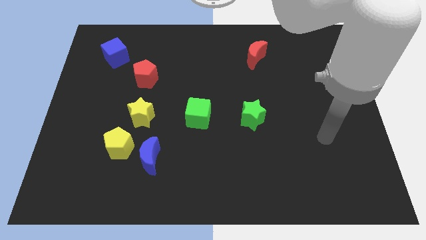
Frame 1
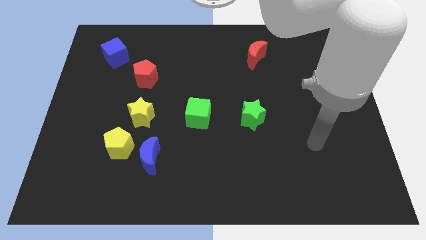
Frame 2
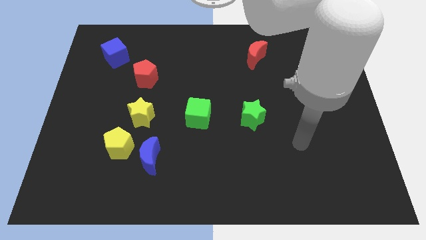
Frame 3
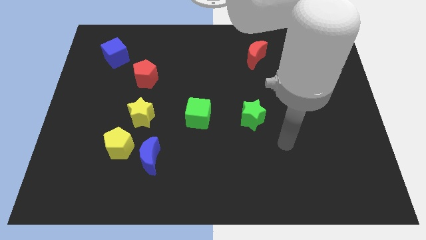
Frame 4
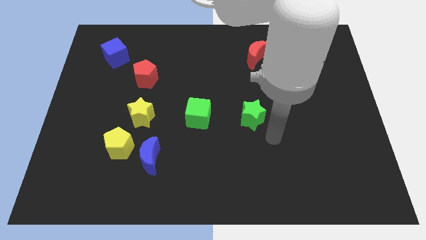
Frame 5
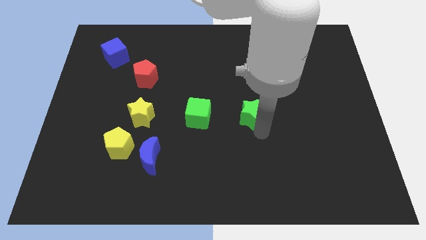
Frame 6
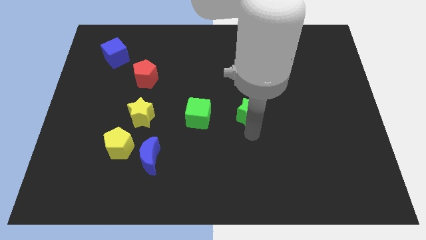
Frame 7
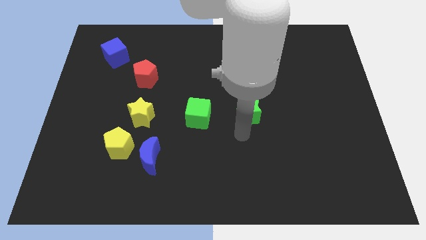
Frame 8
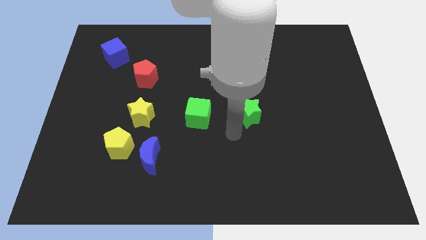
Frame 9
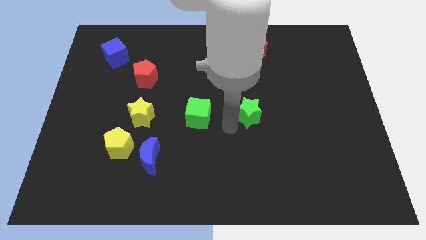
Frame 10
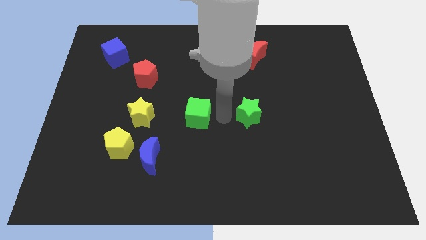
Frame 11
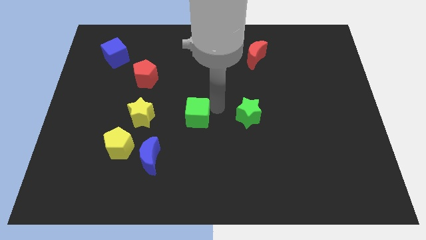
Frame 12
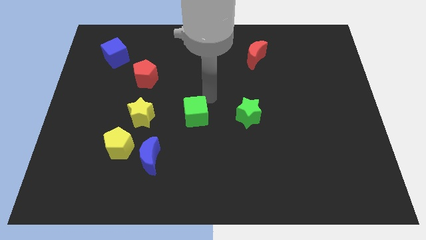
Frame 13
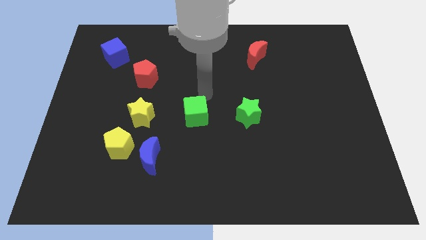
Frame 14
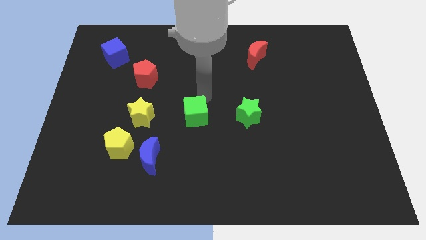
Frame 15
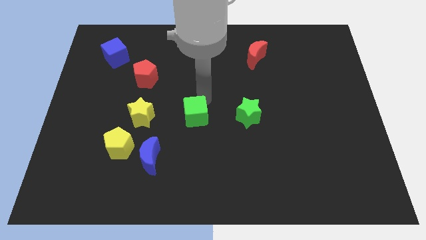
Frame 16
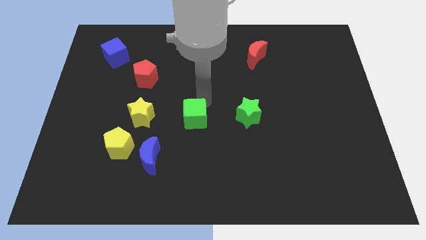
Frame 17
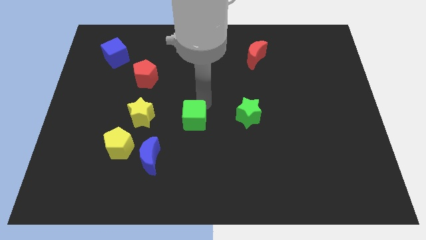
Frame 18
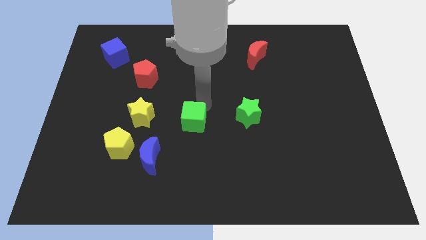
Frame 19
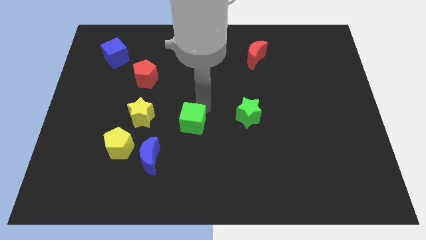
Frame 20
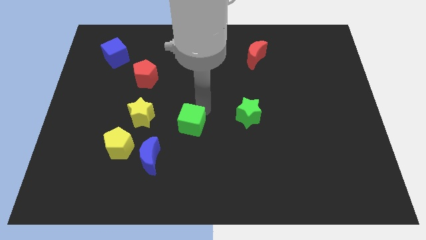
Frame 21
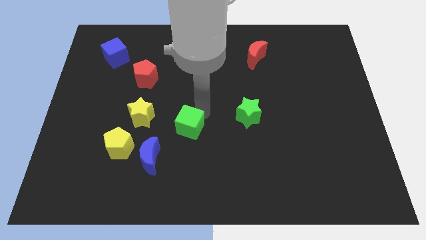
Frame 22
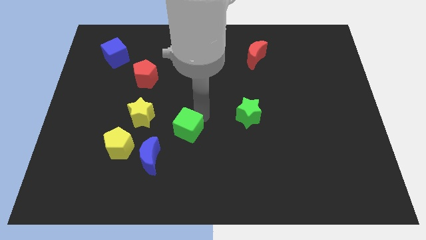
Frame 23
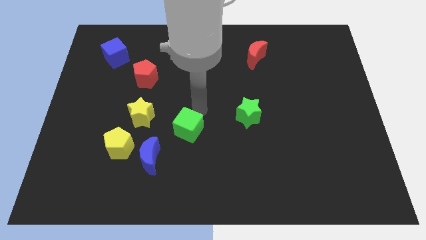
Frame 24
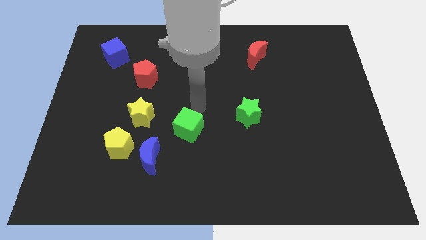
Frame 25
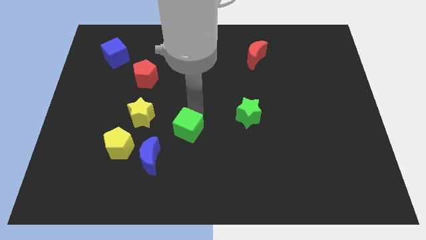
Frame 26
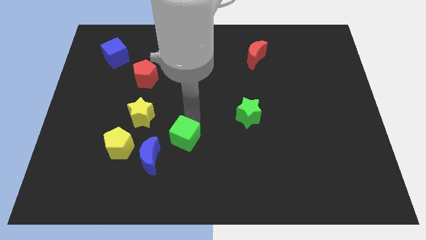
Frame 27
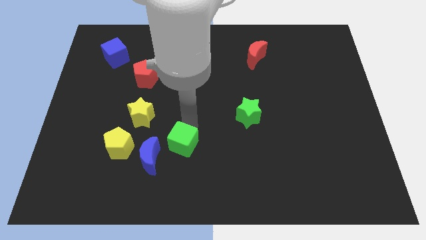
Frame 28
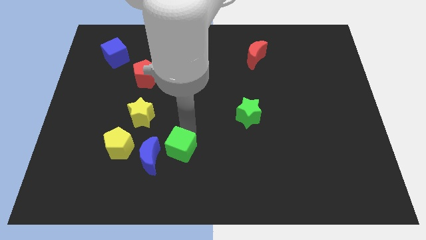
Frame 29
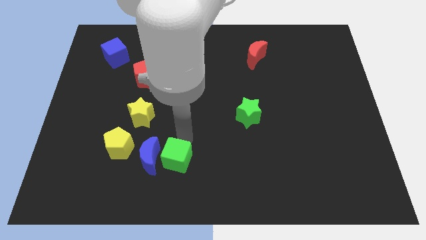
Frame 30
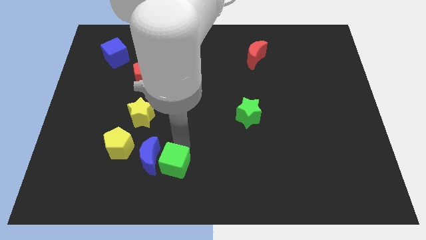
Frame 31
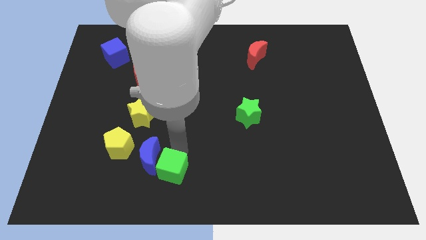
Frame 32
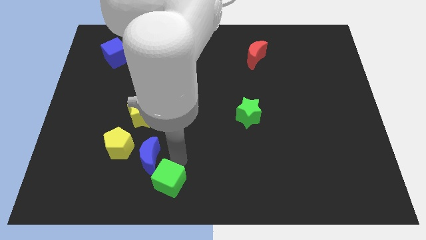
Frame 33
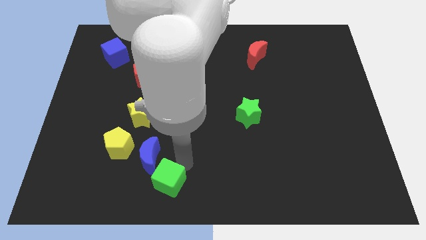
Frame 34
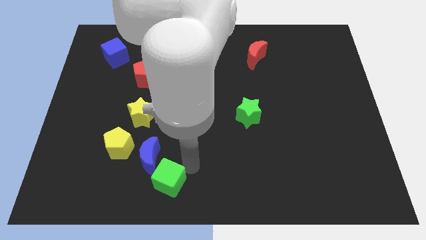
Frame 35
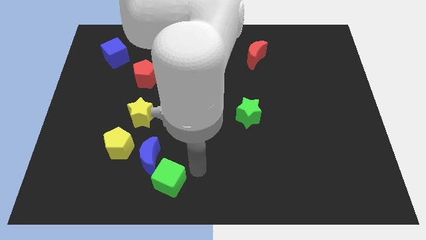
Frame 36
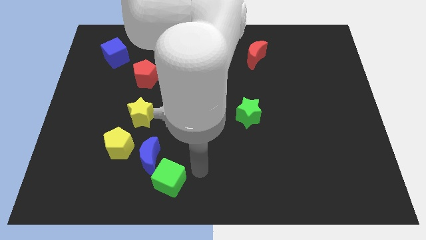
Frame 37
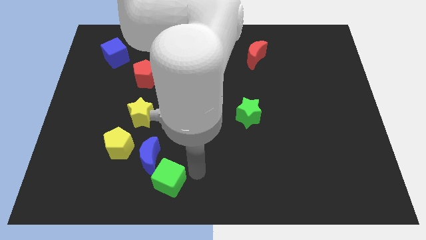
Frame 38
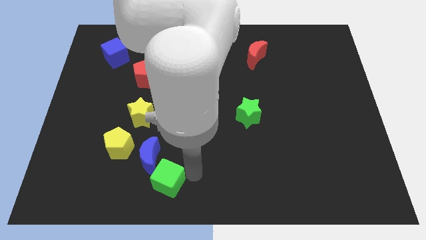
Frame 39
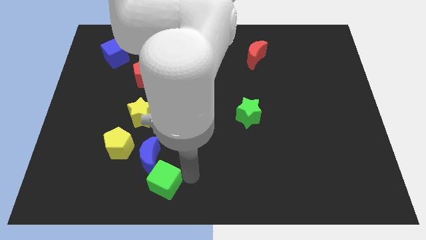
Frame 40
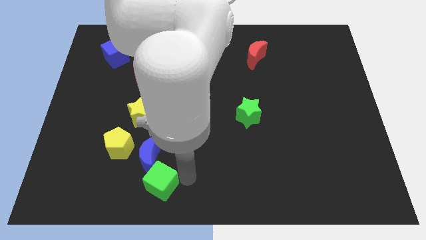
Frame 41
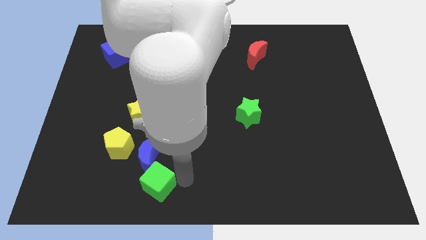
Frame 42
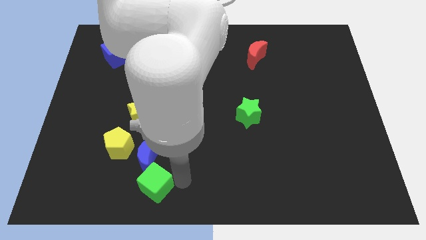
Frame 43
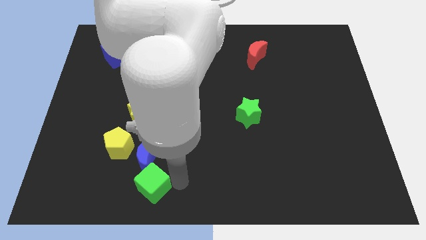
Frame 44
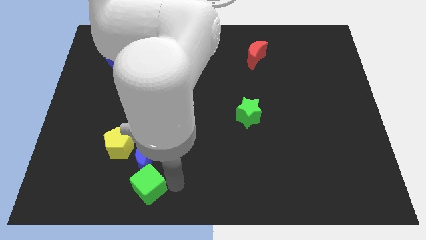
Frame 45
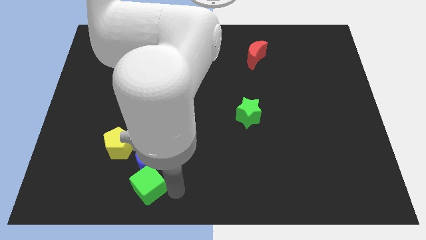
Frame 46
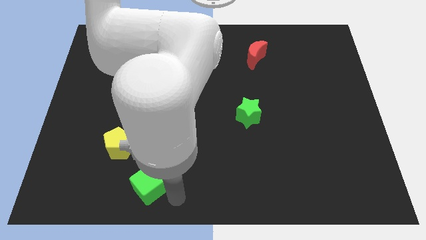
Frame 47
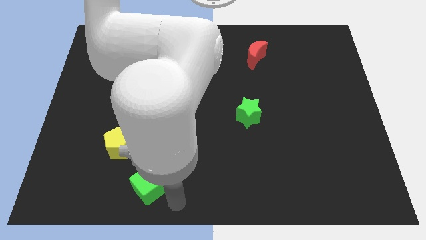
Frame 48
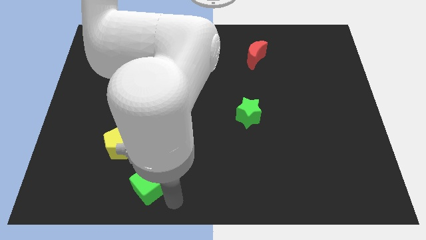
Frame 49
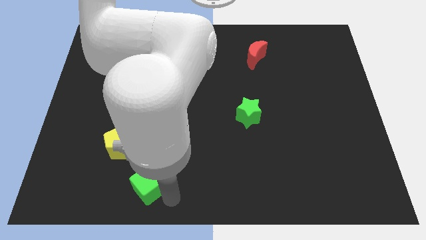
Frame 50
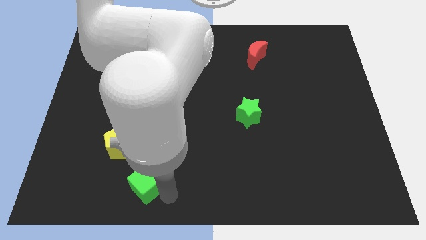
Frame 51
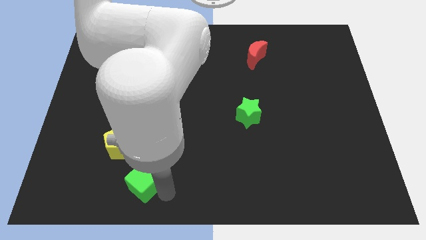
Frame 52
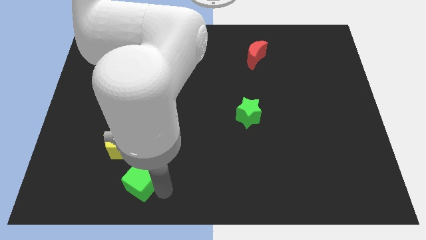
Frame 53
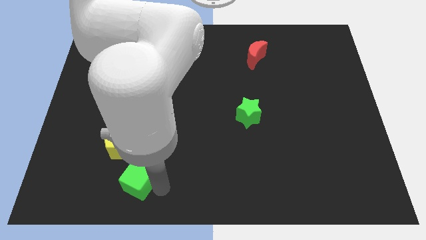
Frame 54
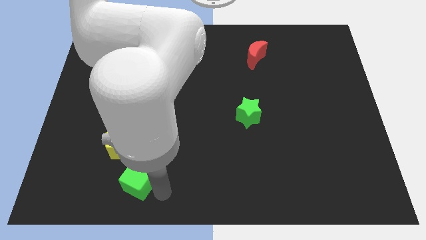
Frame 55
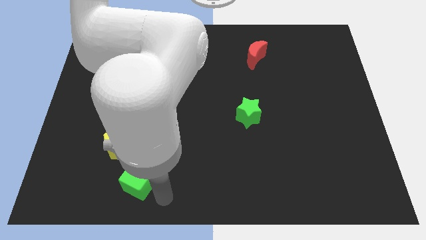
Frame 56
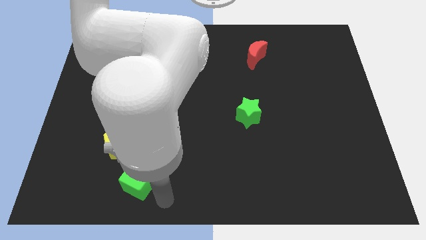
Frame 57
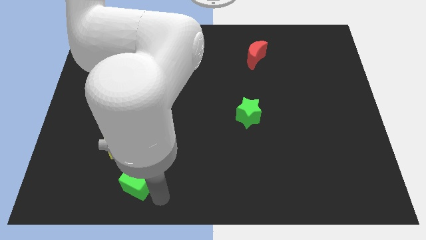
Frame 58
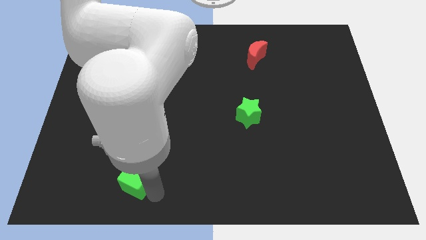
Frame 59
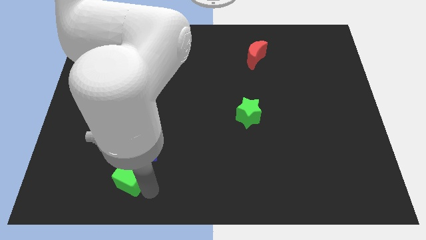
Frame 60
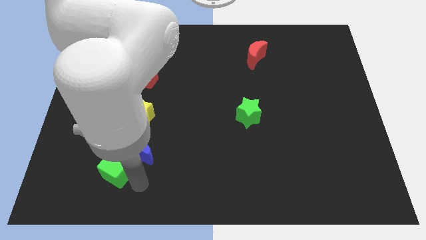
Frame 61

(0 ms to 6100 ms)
put the green cube just left of the blue moon

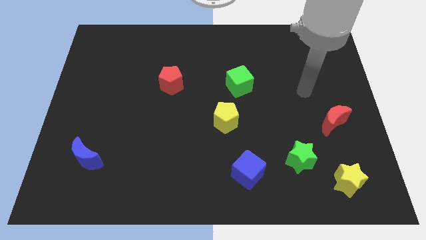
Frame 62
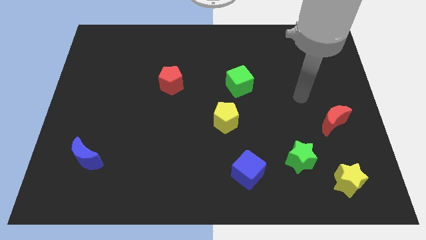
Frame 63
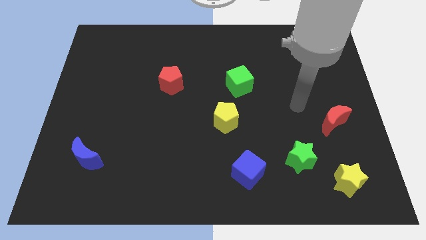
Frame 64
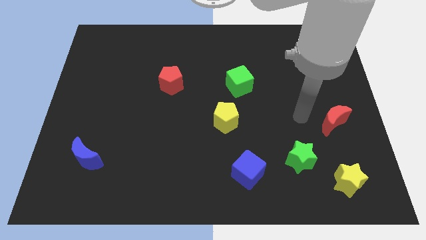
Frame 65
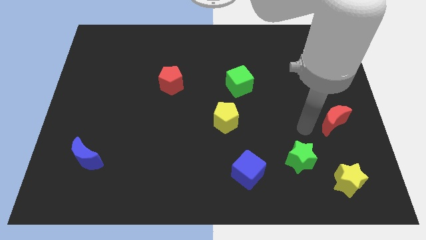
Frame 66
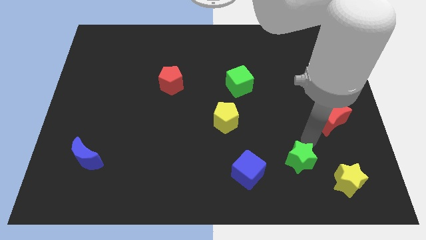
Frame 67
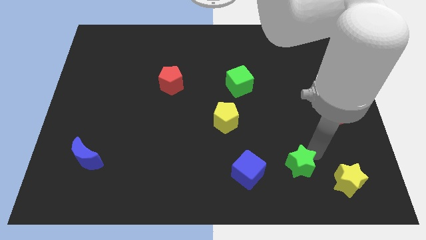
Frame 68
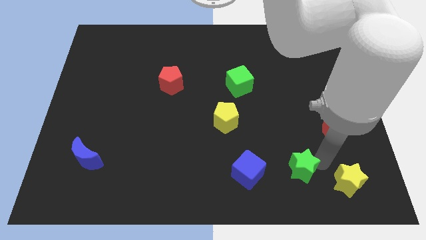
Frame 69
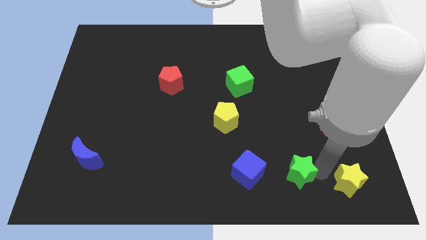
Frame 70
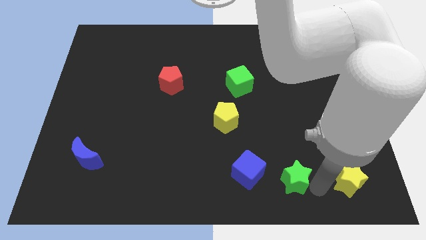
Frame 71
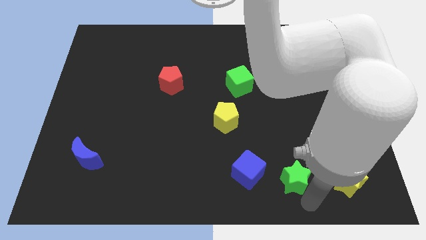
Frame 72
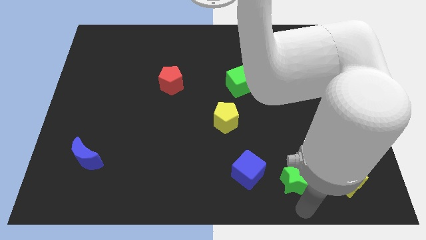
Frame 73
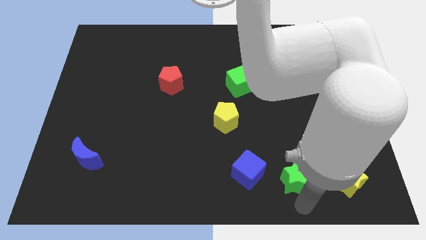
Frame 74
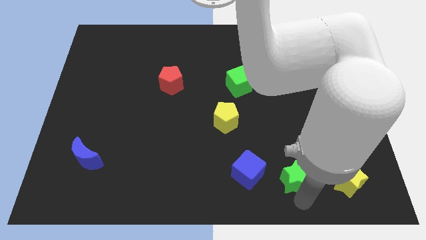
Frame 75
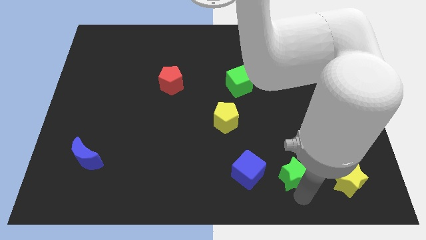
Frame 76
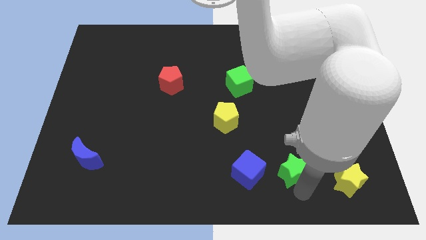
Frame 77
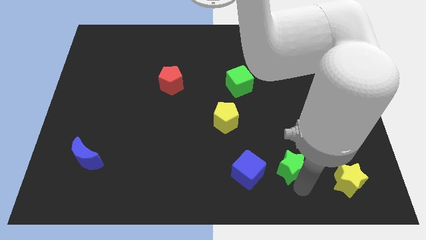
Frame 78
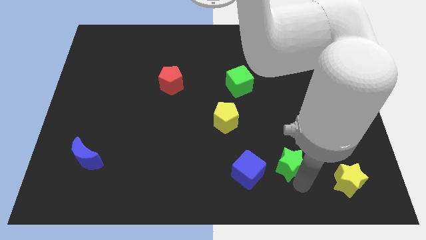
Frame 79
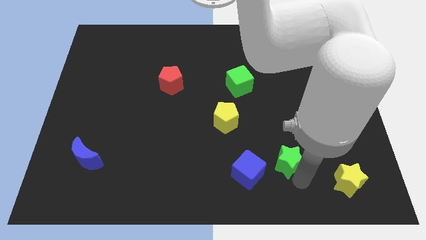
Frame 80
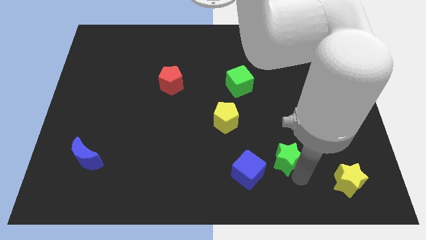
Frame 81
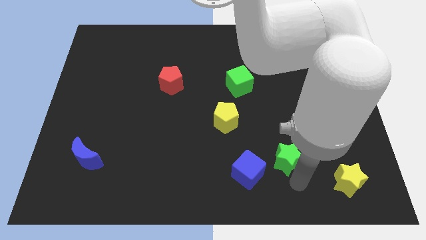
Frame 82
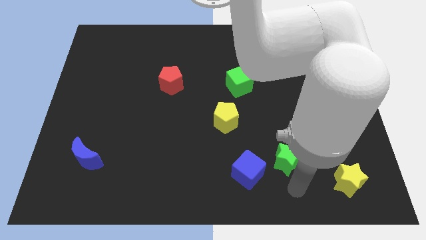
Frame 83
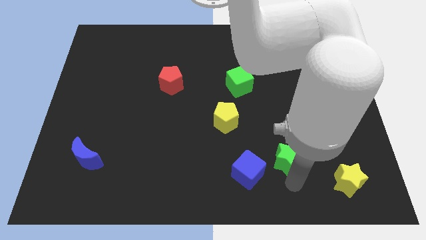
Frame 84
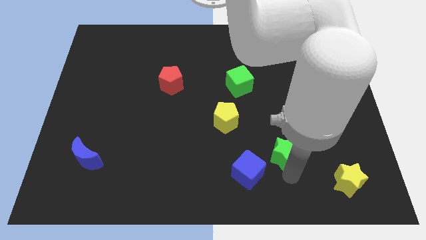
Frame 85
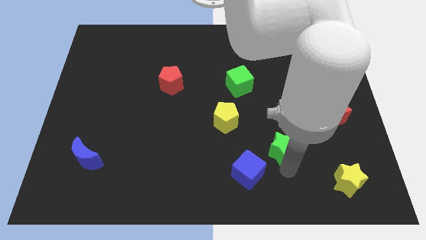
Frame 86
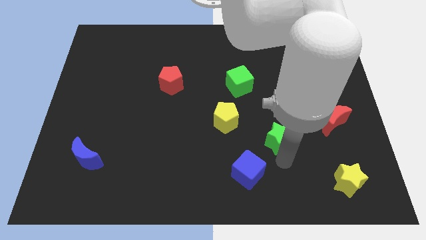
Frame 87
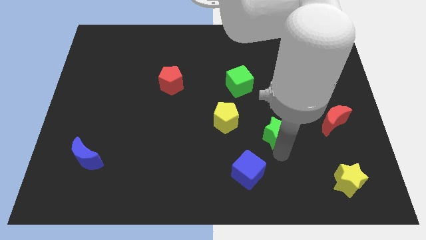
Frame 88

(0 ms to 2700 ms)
move the green star to the right of the yellow pentagon
